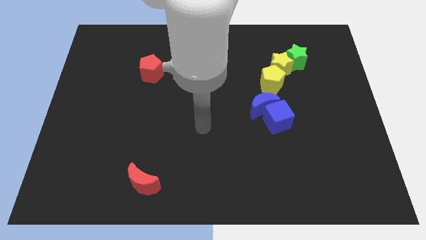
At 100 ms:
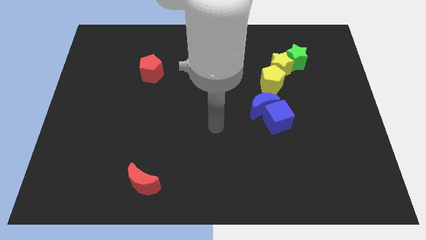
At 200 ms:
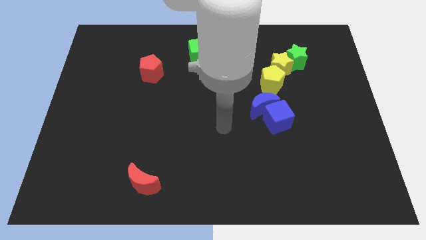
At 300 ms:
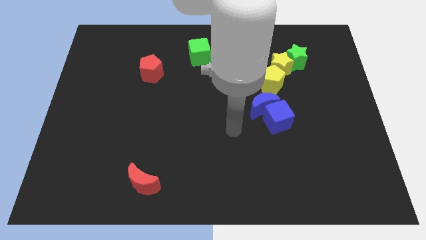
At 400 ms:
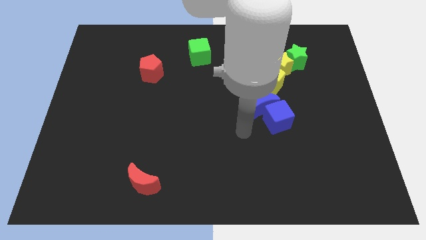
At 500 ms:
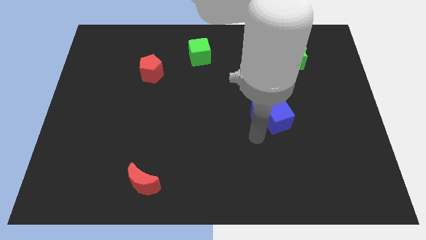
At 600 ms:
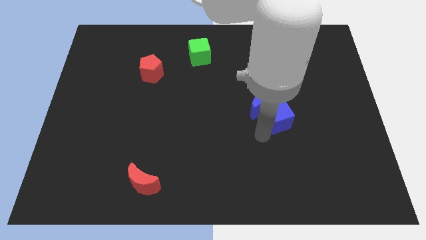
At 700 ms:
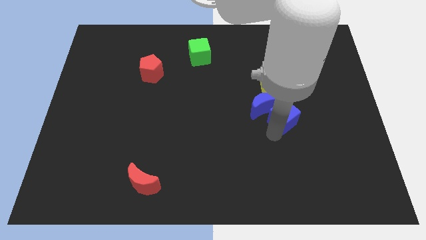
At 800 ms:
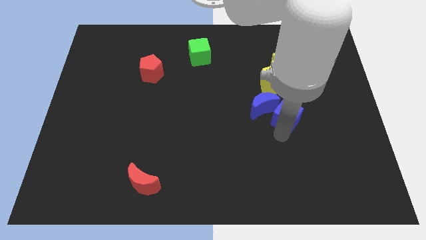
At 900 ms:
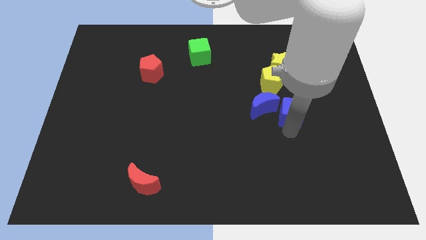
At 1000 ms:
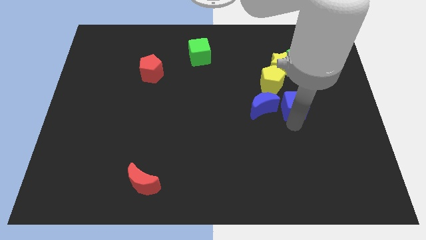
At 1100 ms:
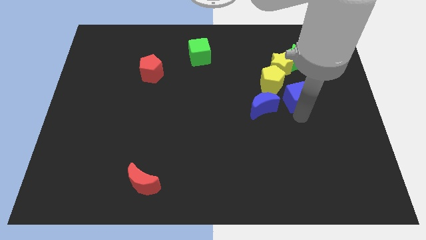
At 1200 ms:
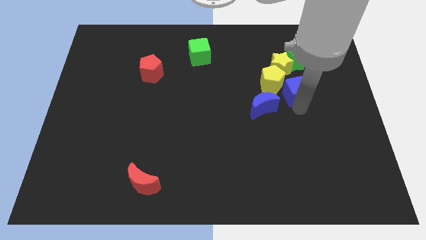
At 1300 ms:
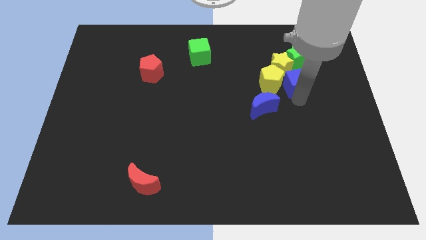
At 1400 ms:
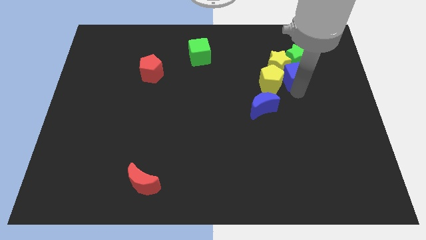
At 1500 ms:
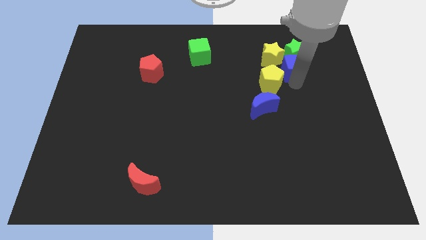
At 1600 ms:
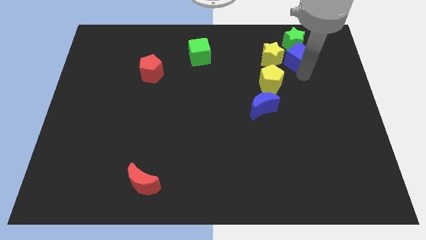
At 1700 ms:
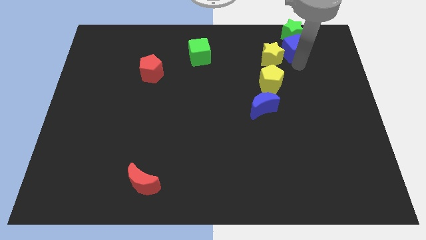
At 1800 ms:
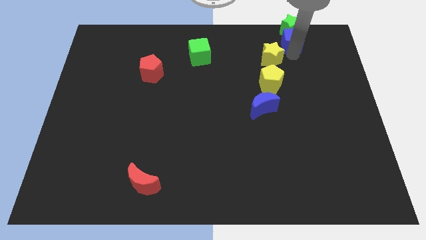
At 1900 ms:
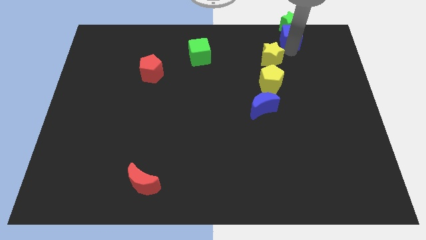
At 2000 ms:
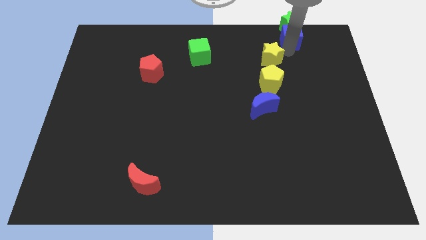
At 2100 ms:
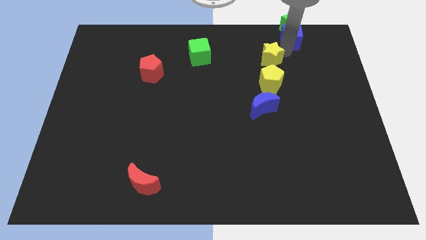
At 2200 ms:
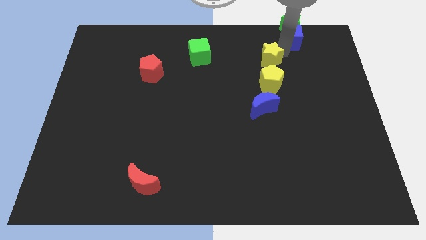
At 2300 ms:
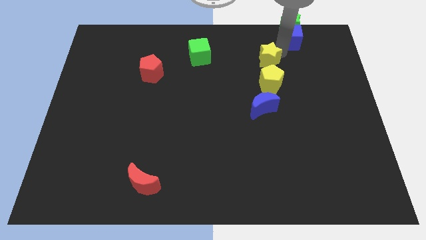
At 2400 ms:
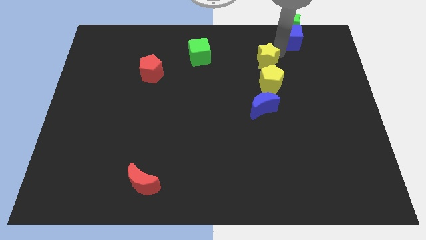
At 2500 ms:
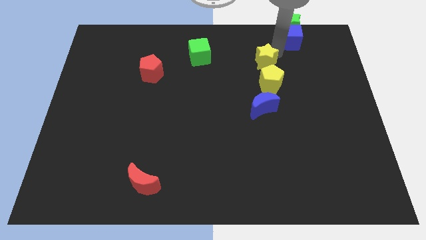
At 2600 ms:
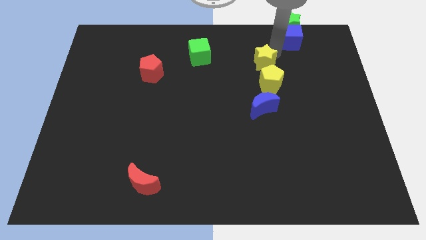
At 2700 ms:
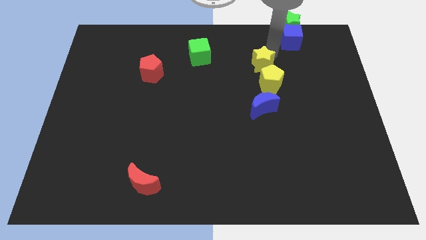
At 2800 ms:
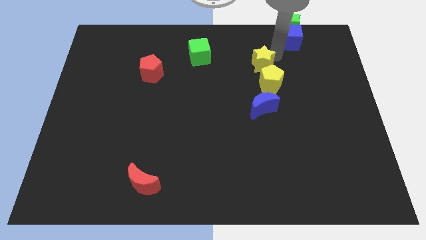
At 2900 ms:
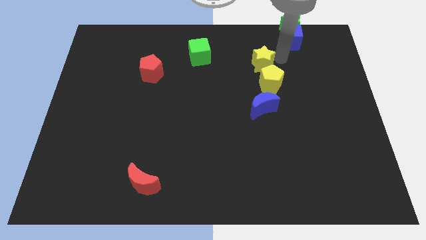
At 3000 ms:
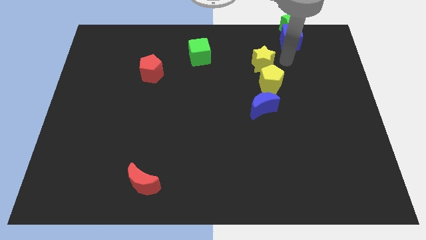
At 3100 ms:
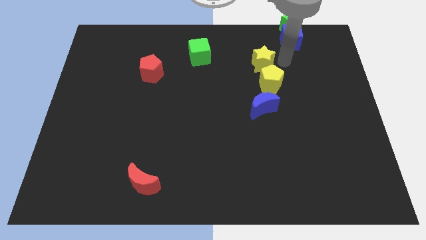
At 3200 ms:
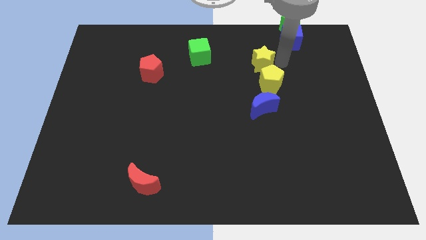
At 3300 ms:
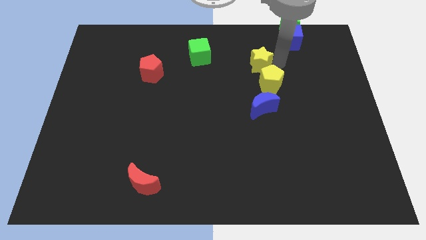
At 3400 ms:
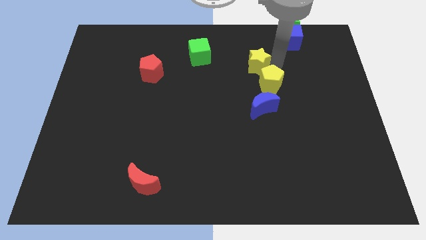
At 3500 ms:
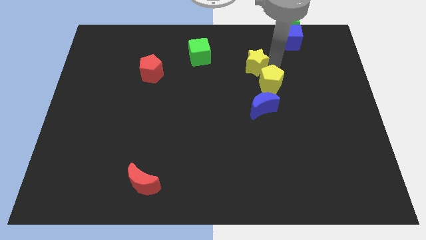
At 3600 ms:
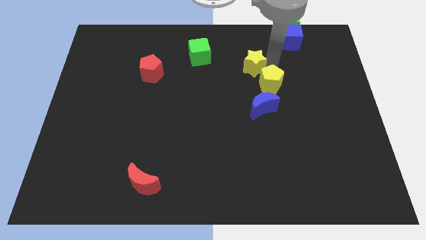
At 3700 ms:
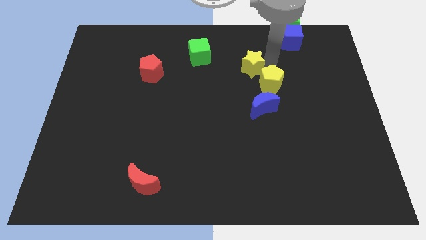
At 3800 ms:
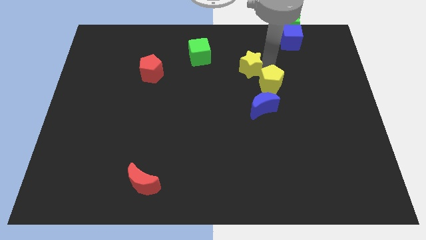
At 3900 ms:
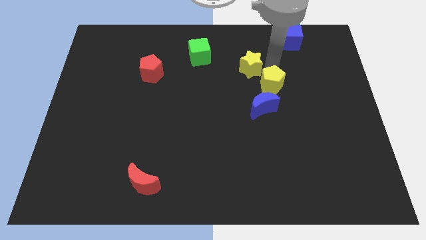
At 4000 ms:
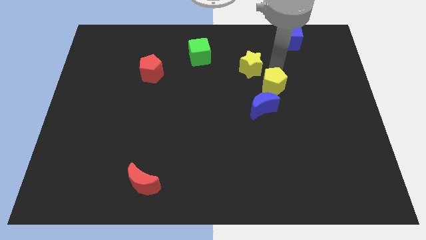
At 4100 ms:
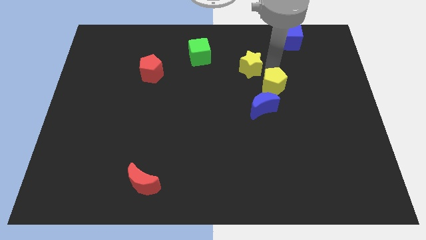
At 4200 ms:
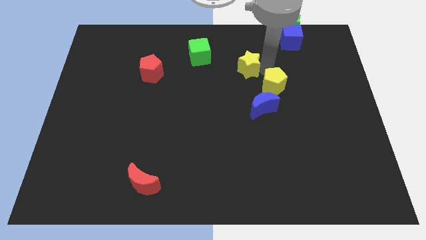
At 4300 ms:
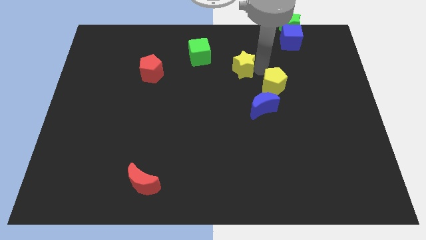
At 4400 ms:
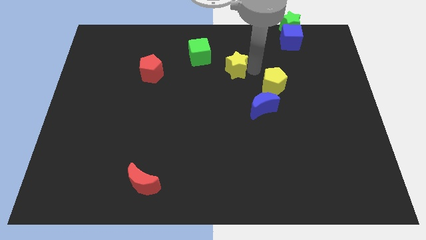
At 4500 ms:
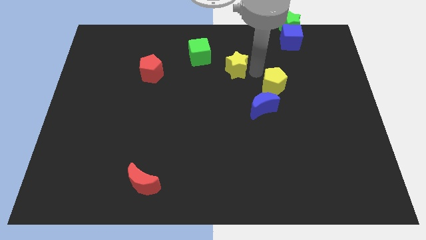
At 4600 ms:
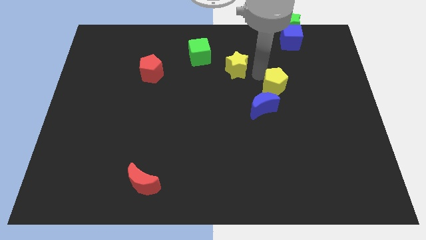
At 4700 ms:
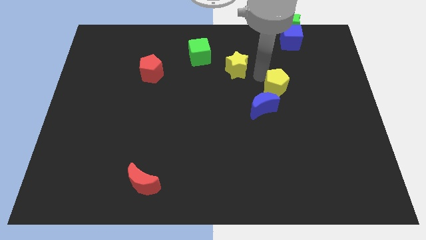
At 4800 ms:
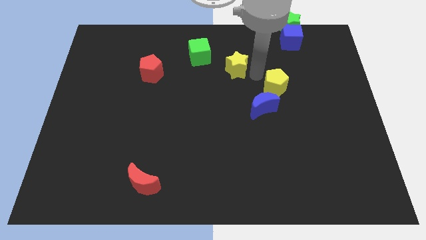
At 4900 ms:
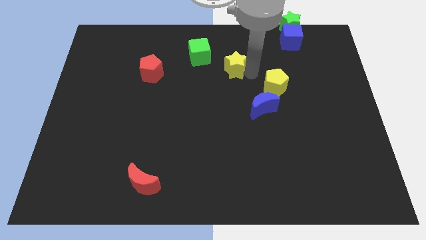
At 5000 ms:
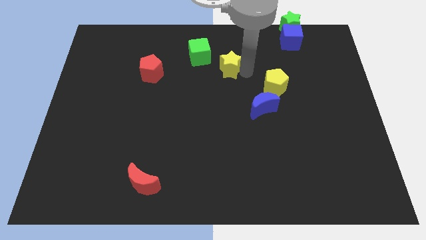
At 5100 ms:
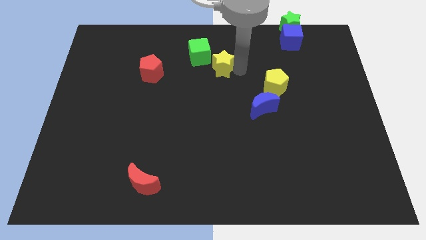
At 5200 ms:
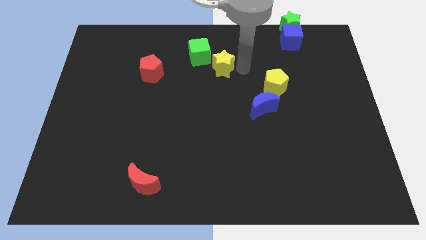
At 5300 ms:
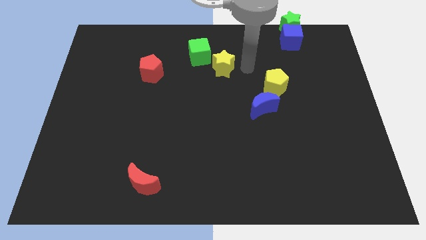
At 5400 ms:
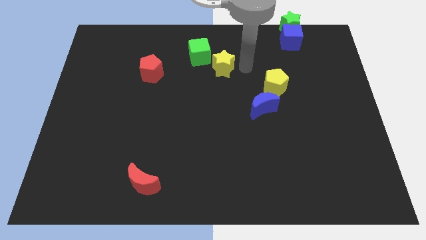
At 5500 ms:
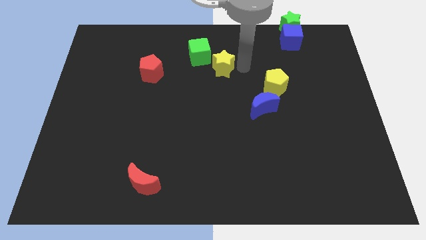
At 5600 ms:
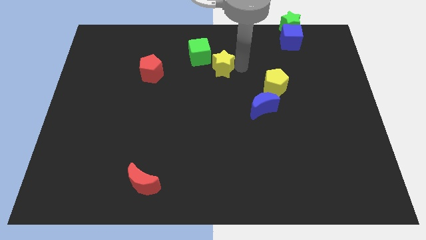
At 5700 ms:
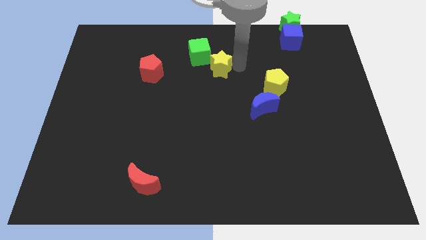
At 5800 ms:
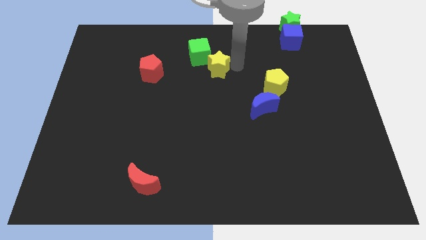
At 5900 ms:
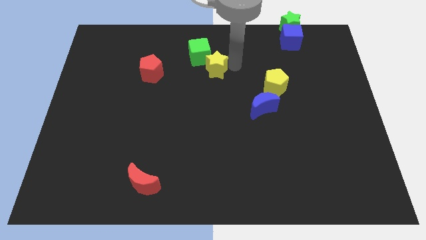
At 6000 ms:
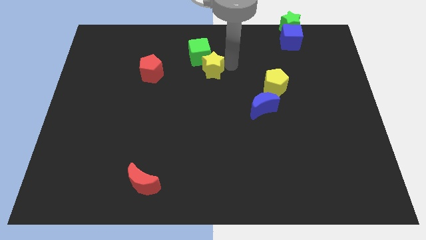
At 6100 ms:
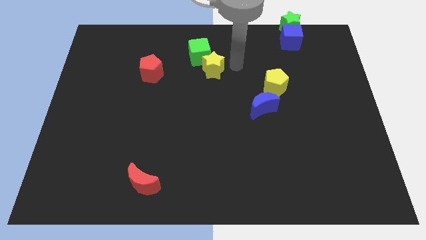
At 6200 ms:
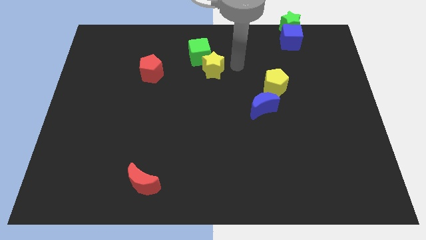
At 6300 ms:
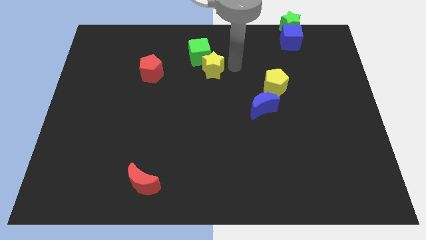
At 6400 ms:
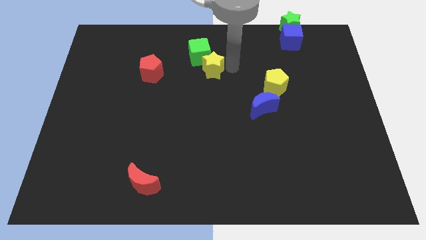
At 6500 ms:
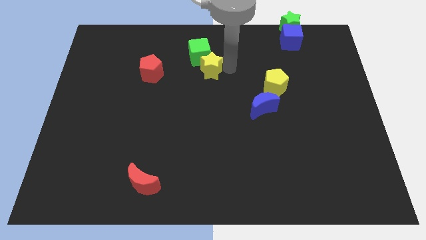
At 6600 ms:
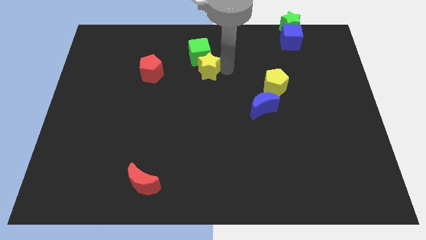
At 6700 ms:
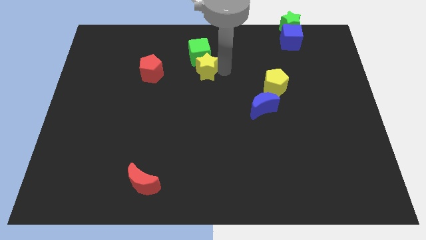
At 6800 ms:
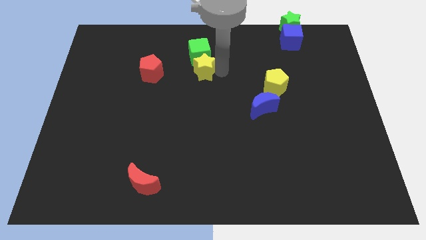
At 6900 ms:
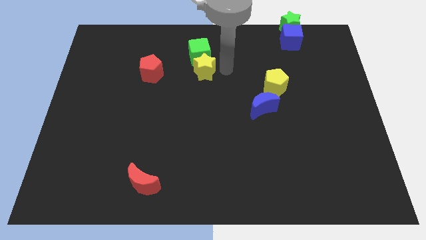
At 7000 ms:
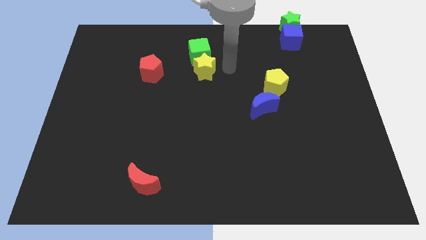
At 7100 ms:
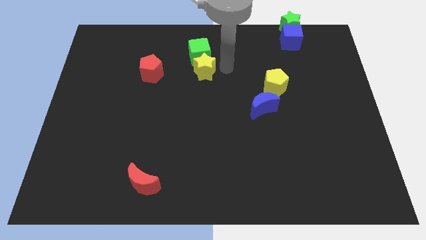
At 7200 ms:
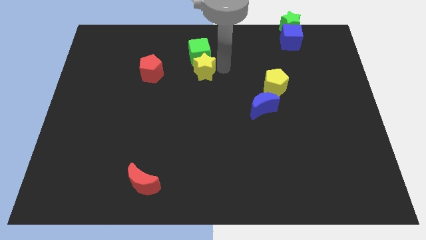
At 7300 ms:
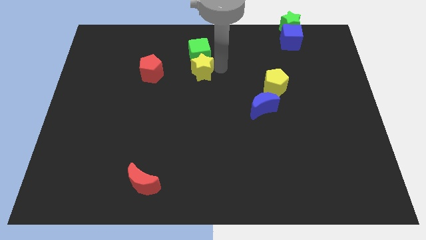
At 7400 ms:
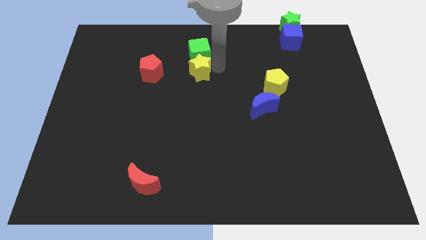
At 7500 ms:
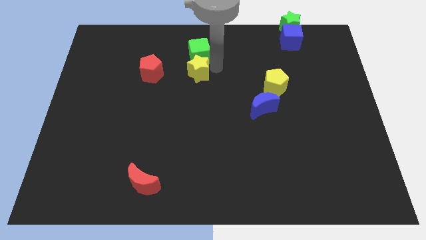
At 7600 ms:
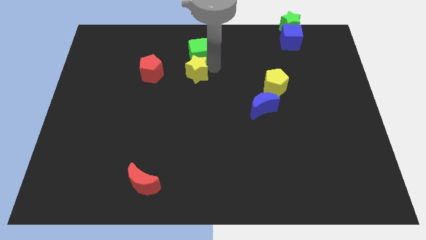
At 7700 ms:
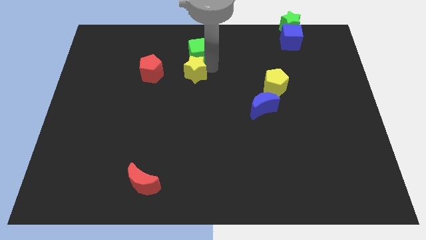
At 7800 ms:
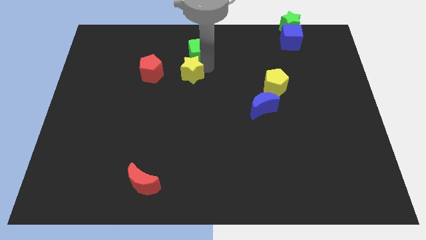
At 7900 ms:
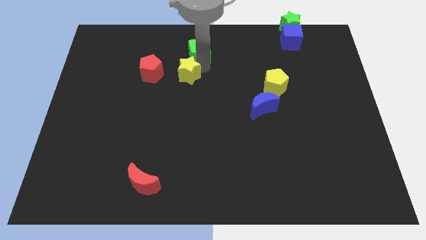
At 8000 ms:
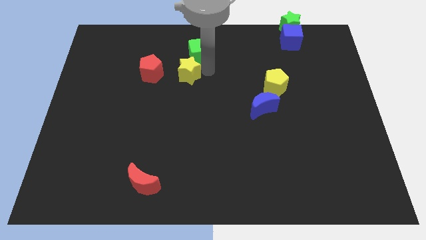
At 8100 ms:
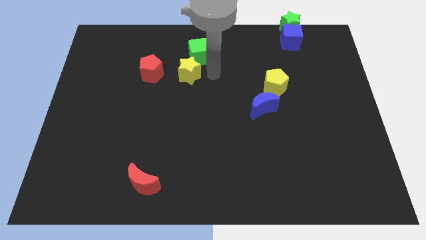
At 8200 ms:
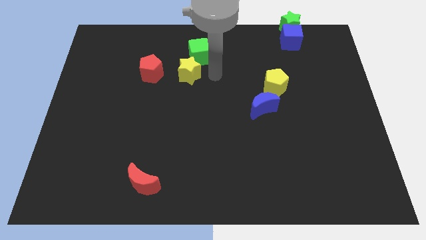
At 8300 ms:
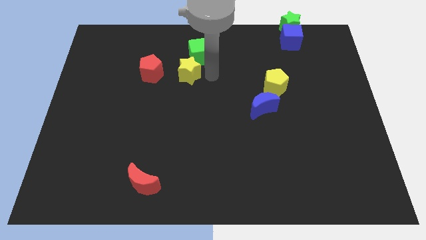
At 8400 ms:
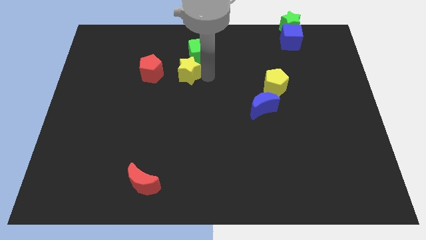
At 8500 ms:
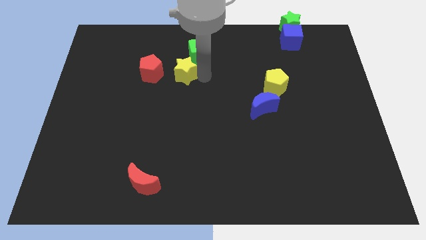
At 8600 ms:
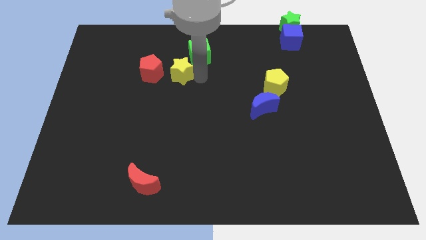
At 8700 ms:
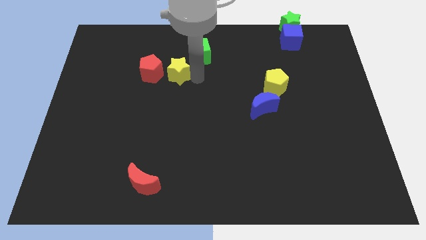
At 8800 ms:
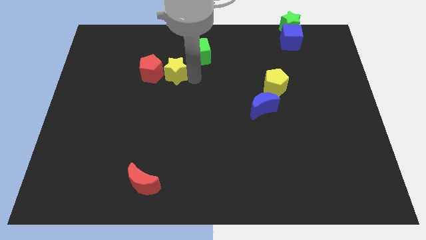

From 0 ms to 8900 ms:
push the yellow star next to the red pentagon
